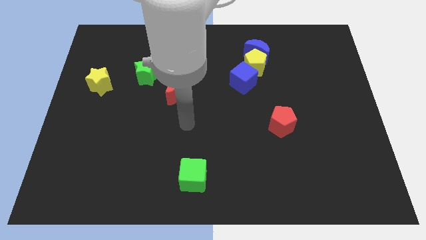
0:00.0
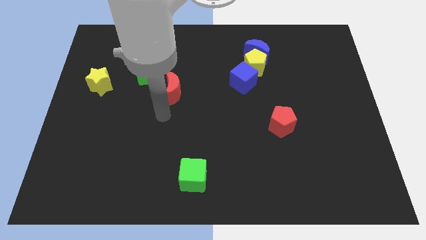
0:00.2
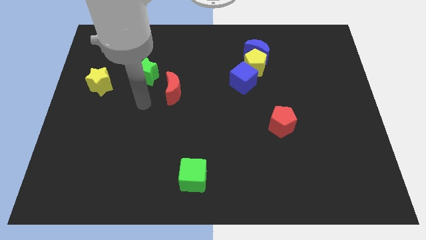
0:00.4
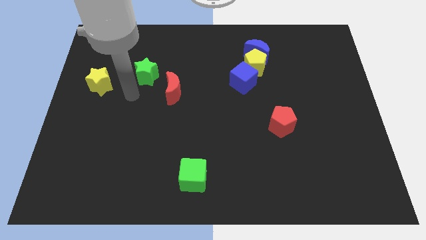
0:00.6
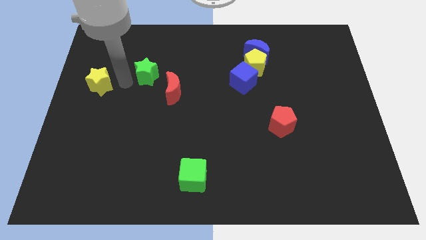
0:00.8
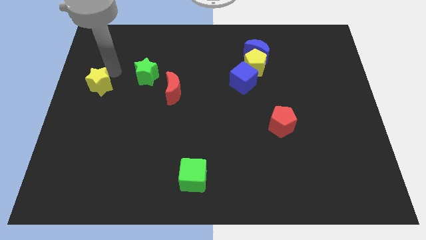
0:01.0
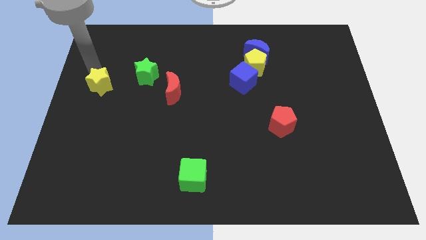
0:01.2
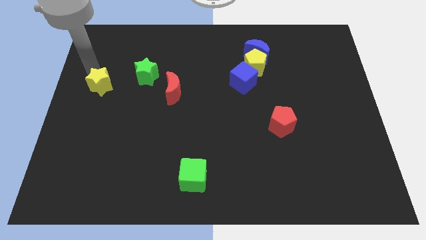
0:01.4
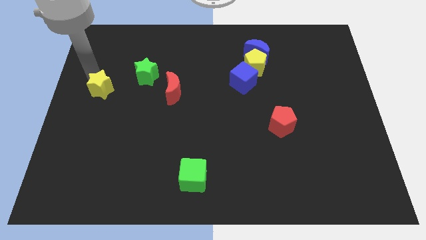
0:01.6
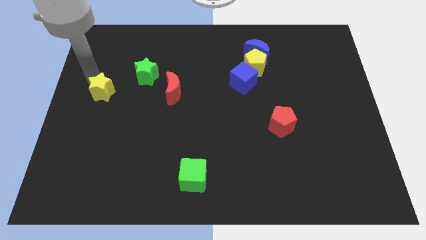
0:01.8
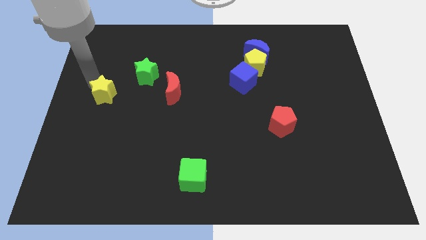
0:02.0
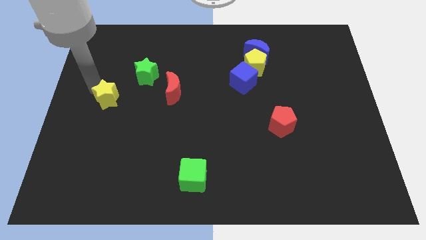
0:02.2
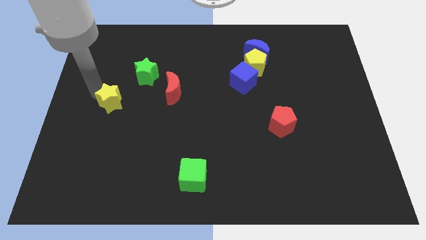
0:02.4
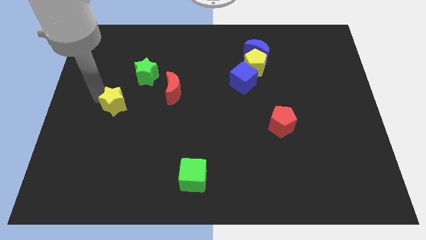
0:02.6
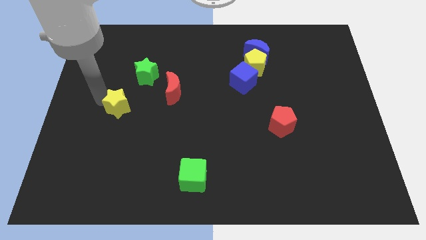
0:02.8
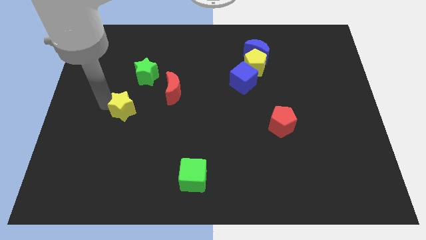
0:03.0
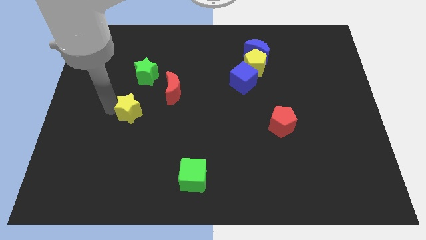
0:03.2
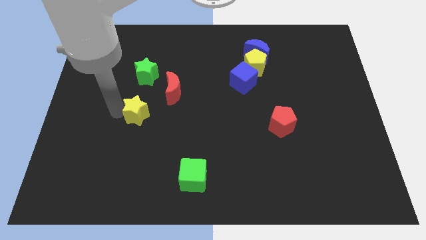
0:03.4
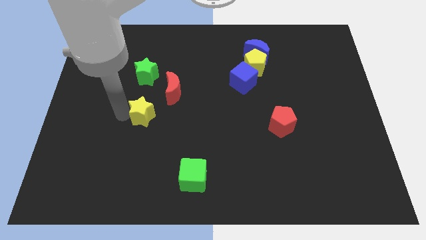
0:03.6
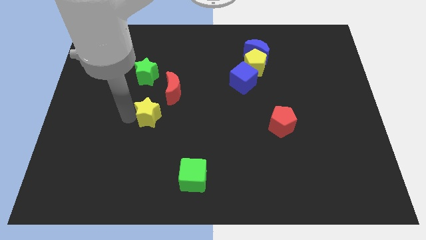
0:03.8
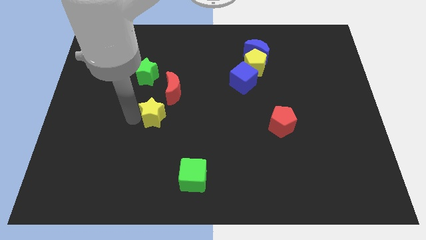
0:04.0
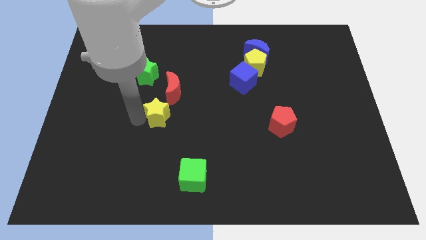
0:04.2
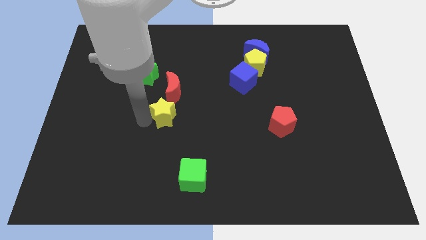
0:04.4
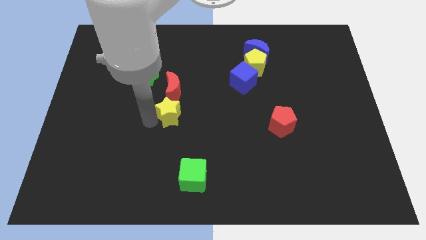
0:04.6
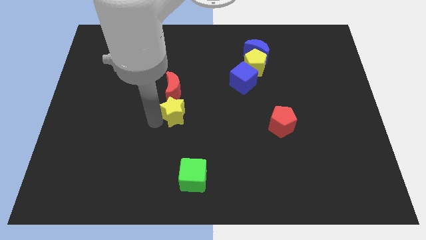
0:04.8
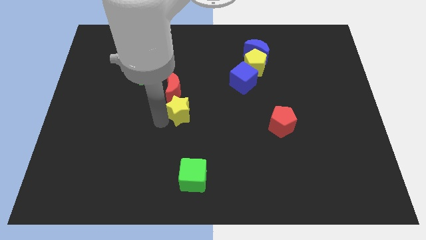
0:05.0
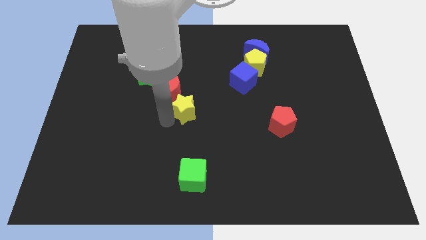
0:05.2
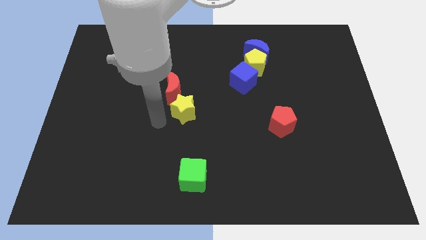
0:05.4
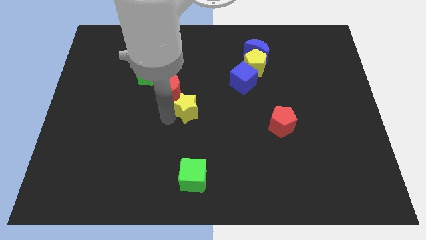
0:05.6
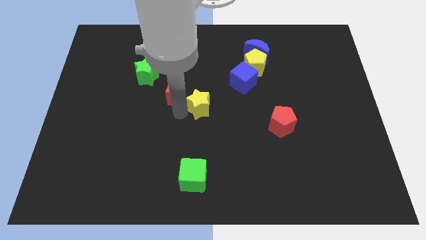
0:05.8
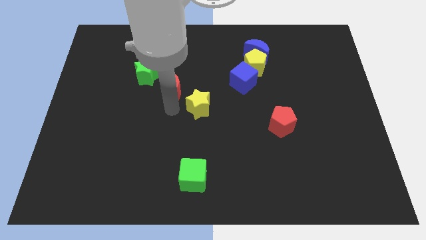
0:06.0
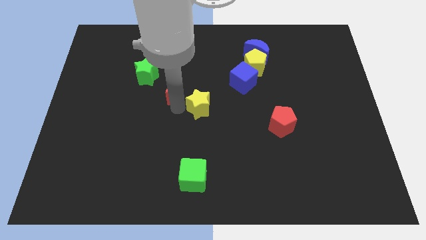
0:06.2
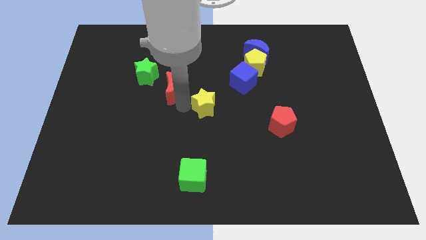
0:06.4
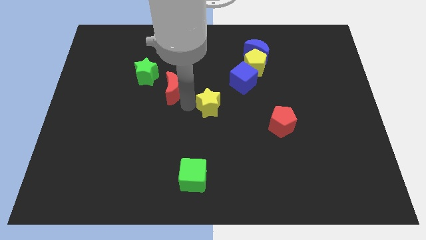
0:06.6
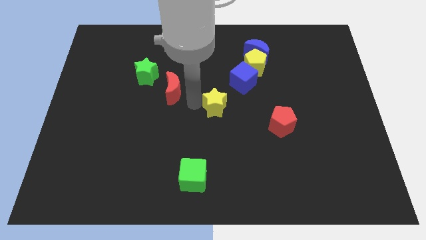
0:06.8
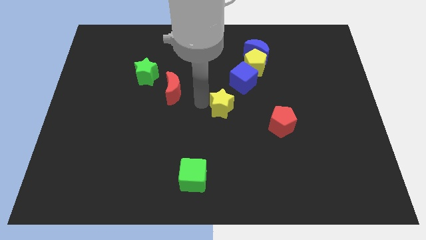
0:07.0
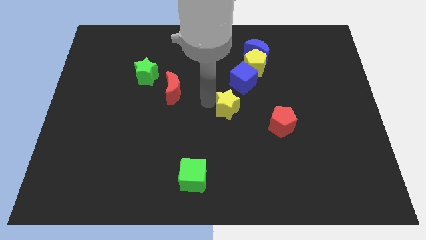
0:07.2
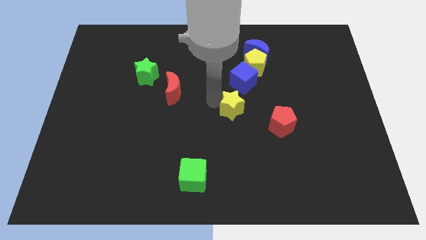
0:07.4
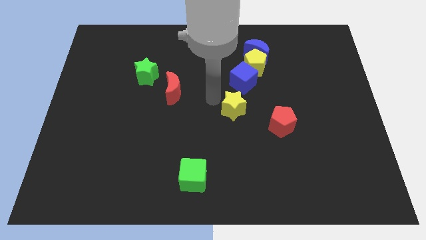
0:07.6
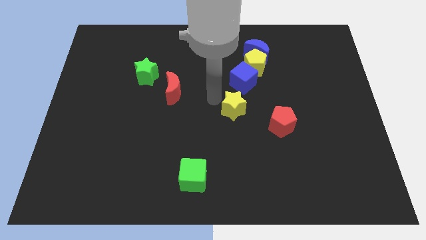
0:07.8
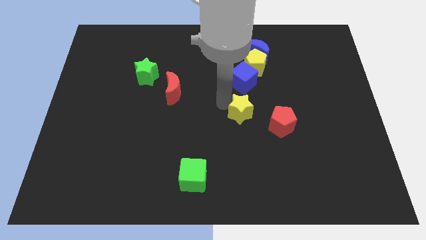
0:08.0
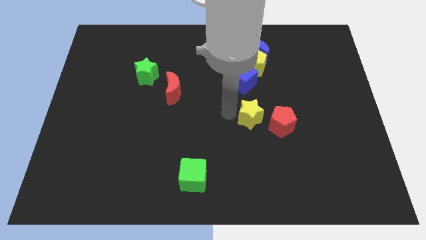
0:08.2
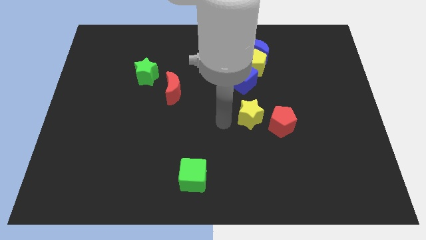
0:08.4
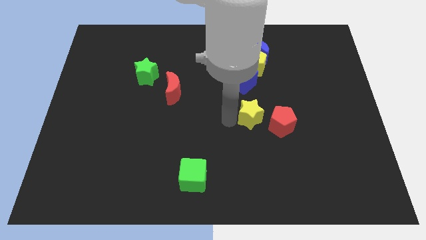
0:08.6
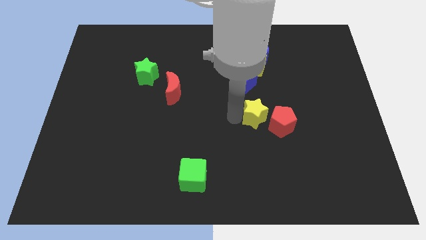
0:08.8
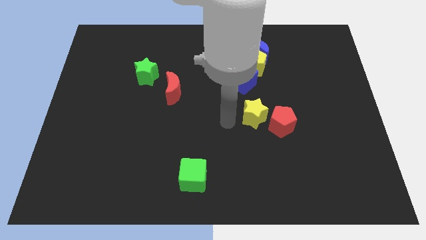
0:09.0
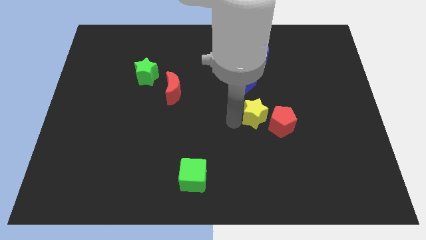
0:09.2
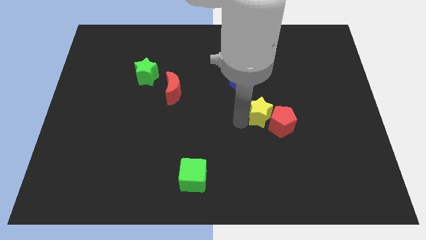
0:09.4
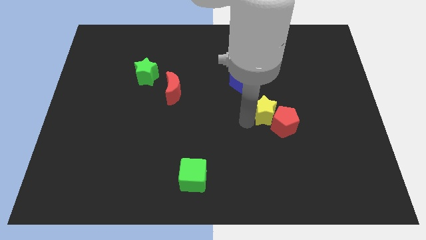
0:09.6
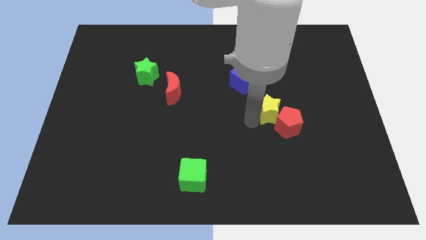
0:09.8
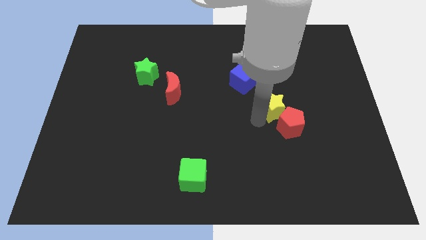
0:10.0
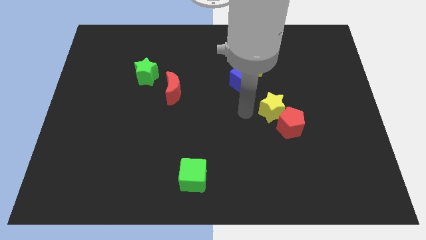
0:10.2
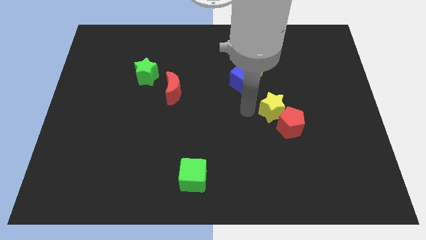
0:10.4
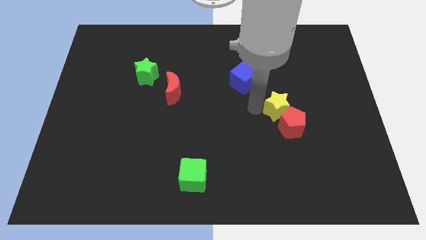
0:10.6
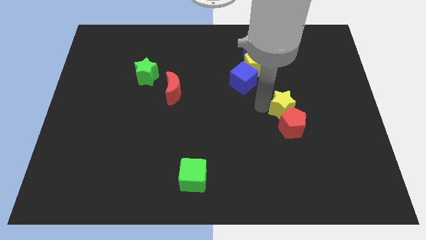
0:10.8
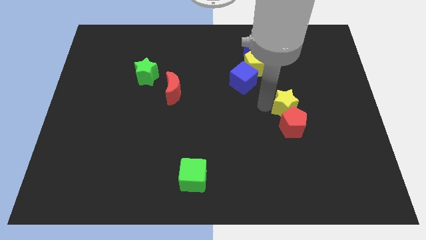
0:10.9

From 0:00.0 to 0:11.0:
push the yellow star diagonally up and to the right of the red pentagon

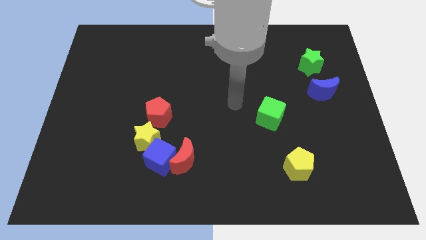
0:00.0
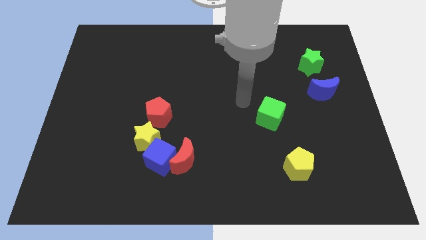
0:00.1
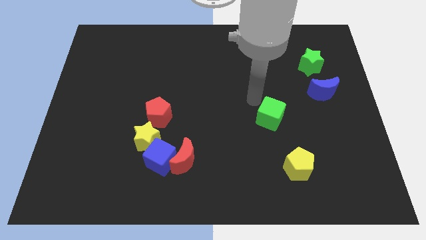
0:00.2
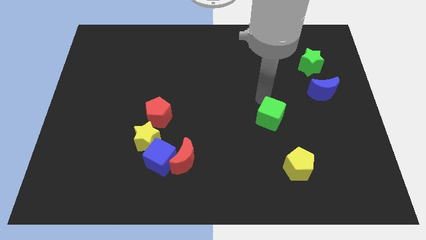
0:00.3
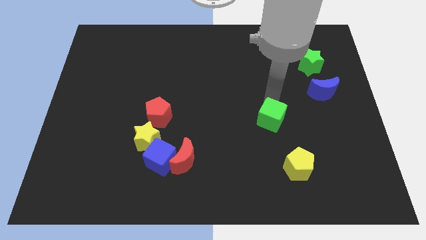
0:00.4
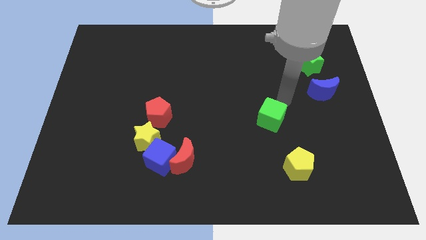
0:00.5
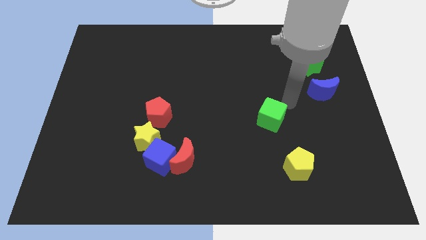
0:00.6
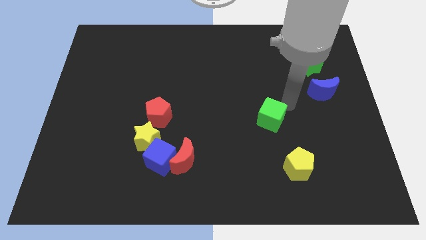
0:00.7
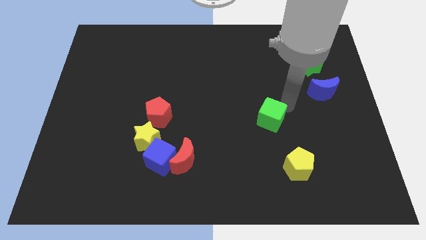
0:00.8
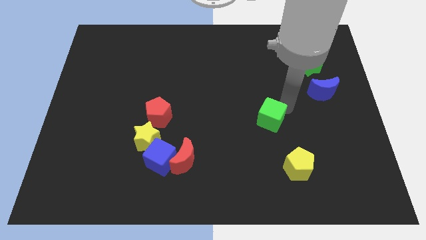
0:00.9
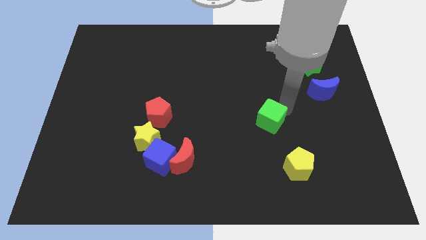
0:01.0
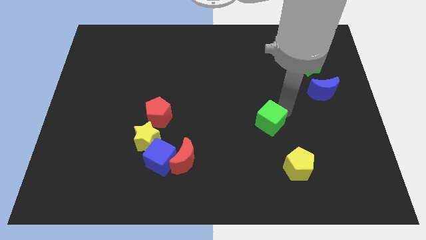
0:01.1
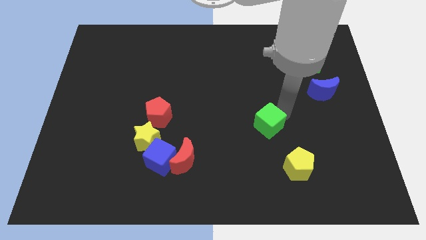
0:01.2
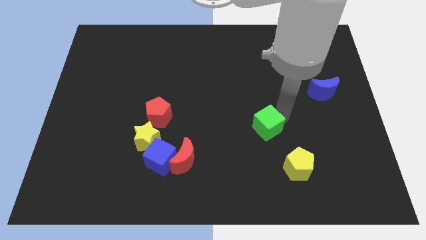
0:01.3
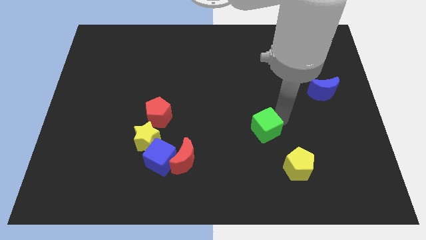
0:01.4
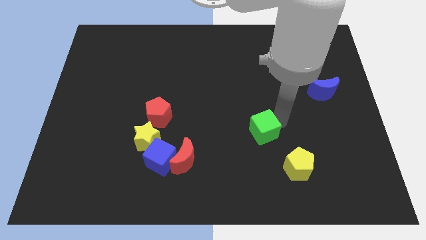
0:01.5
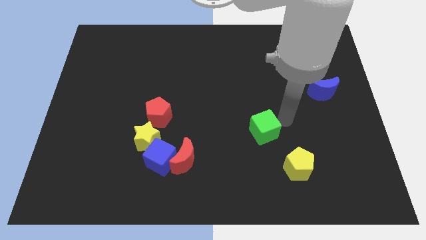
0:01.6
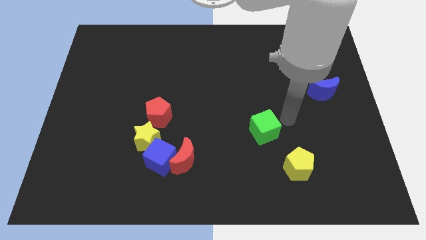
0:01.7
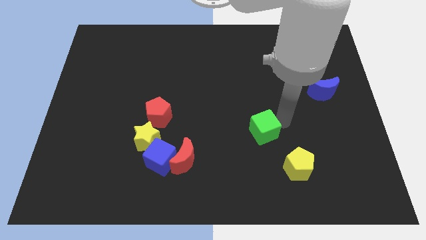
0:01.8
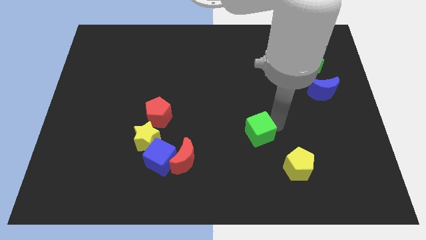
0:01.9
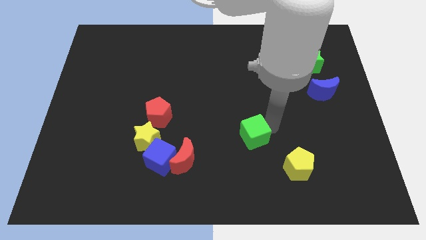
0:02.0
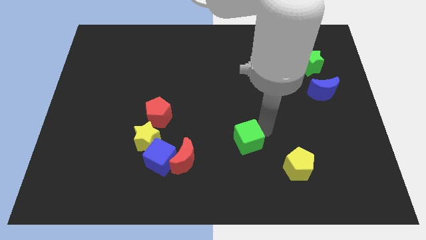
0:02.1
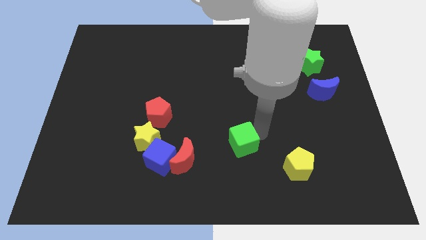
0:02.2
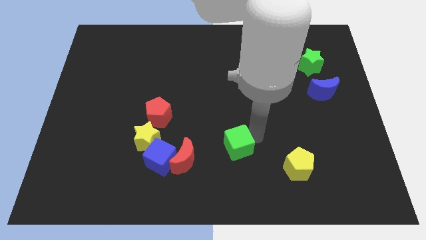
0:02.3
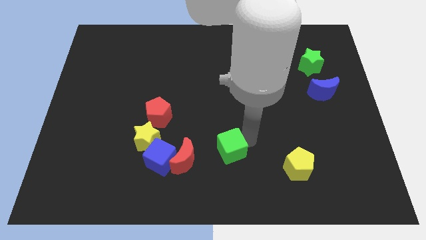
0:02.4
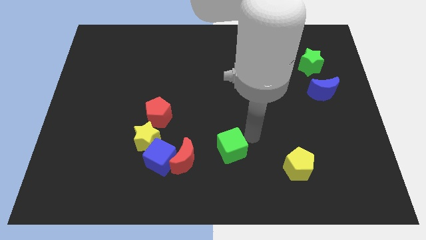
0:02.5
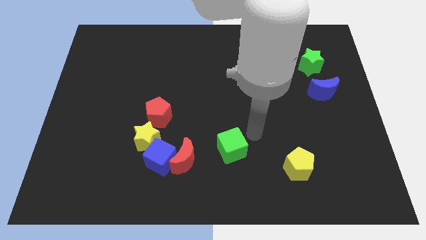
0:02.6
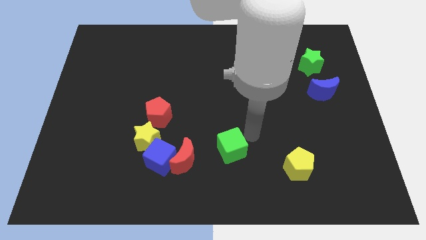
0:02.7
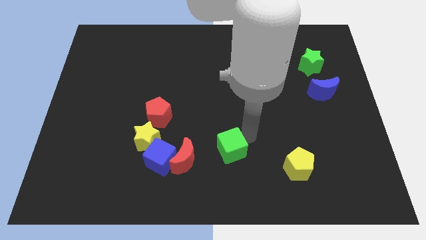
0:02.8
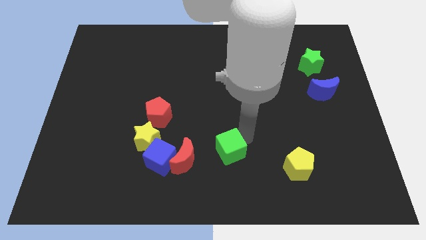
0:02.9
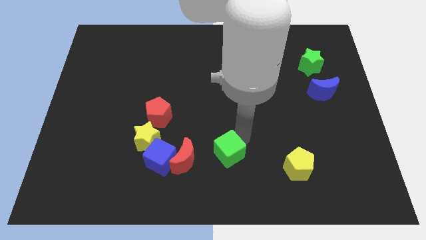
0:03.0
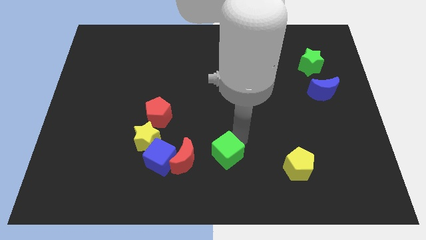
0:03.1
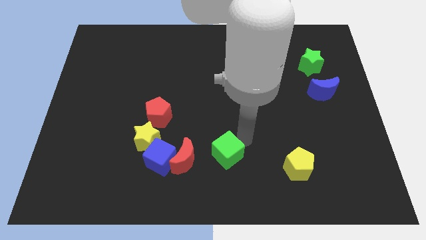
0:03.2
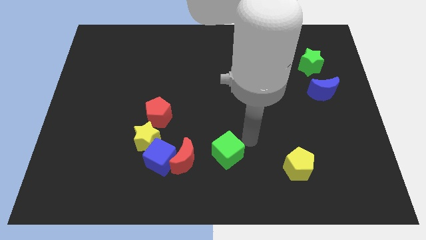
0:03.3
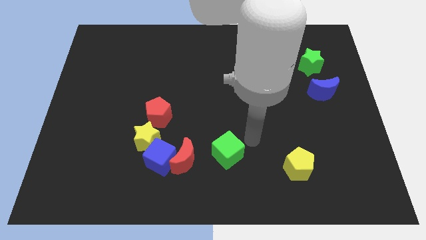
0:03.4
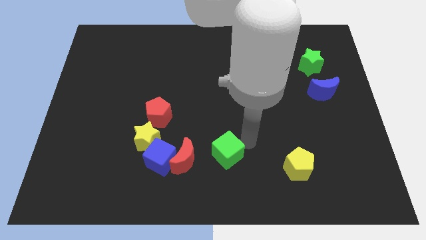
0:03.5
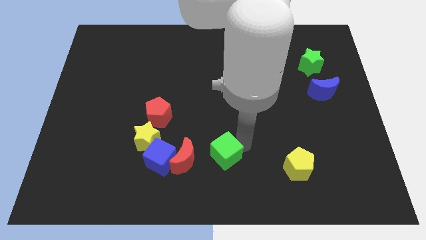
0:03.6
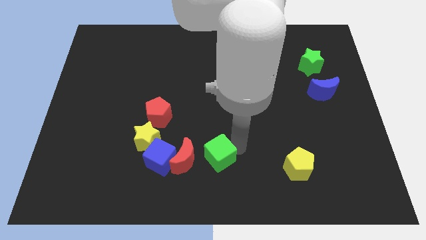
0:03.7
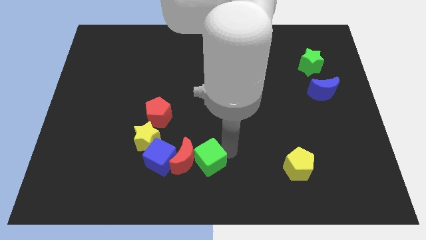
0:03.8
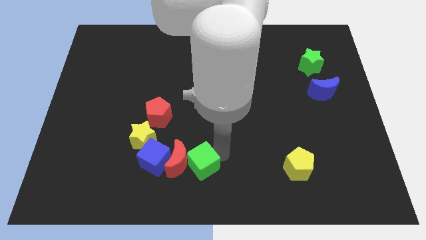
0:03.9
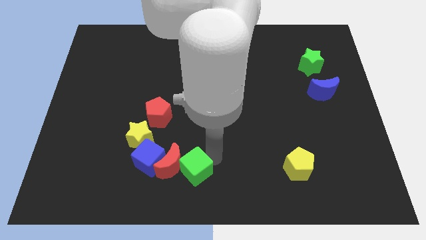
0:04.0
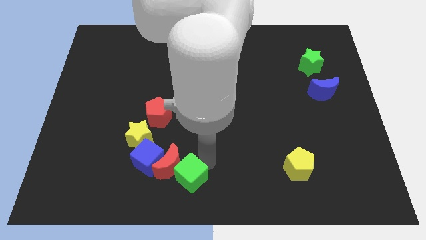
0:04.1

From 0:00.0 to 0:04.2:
put the green cube to the bottom right of the blue cube
